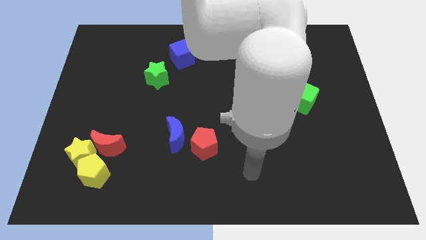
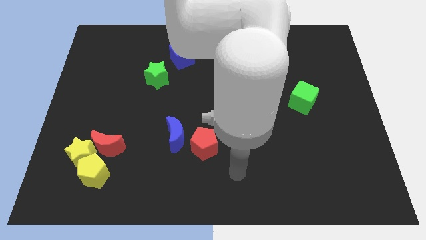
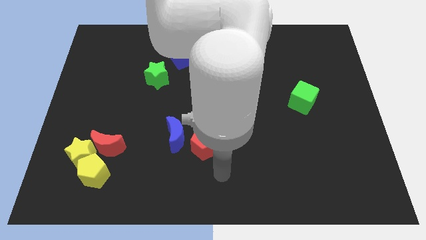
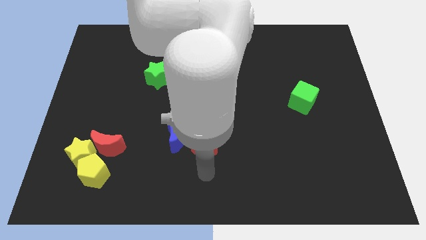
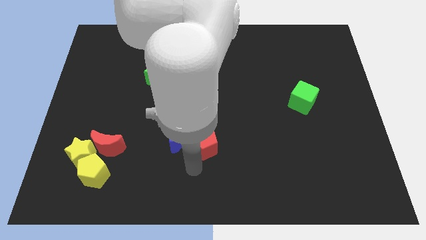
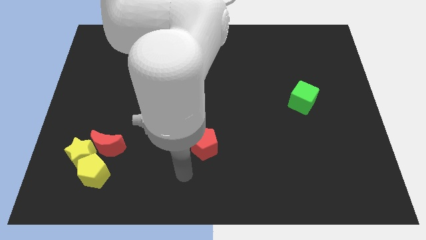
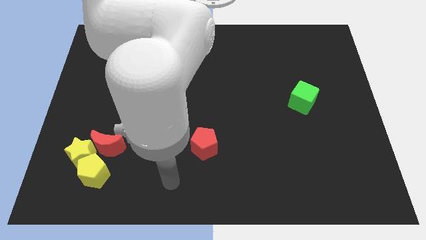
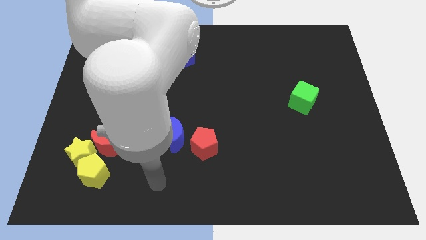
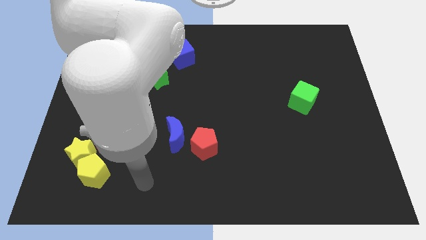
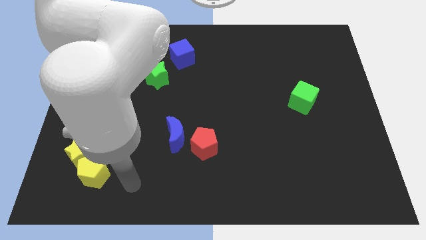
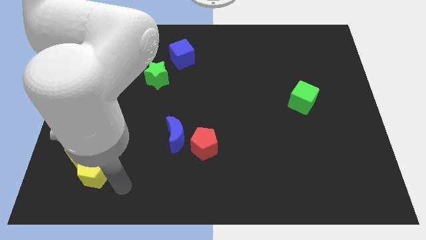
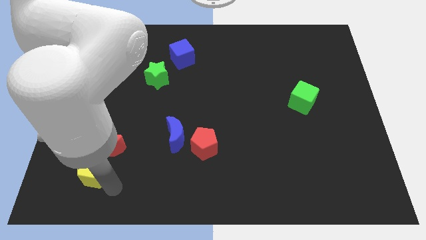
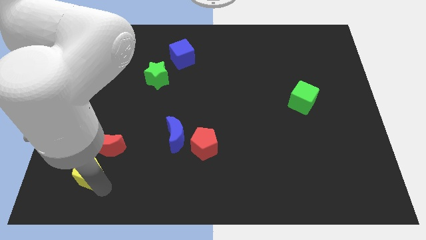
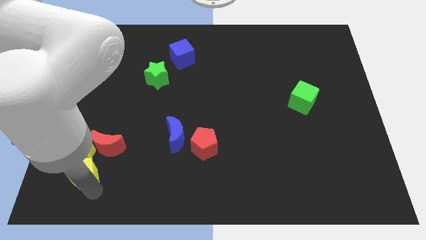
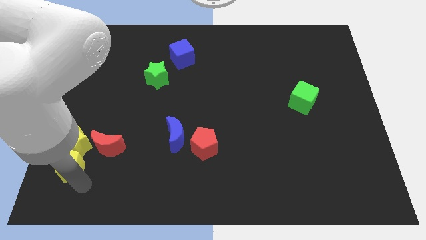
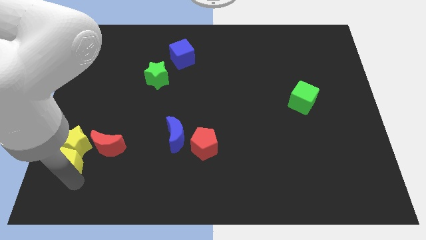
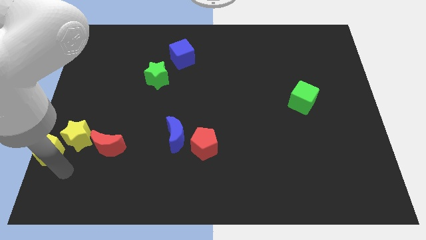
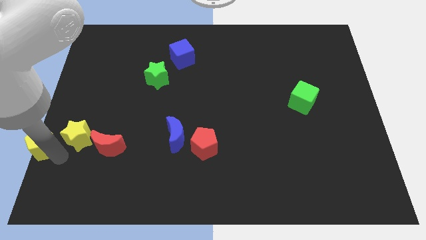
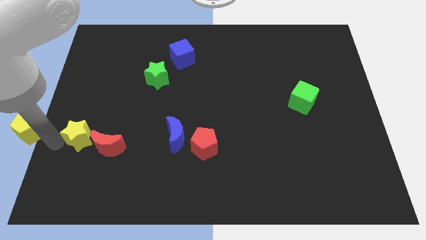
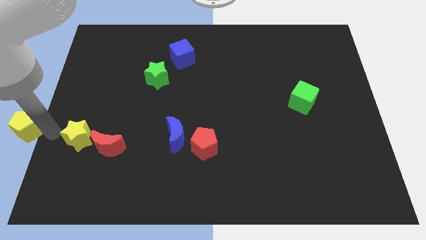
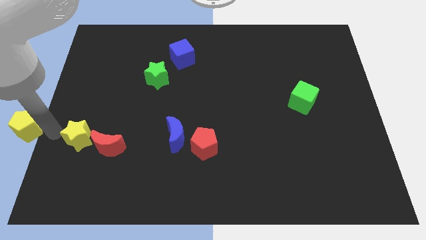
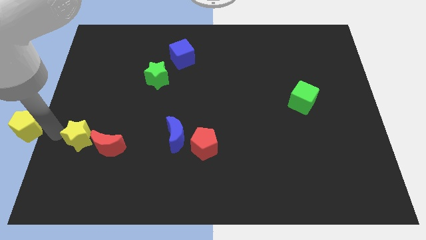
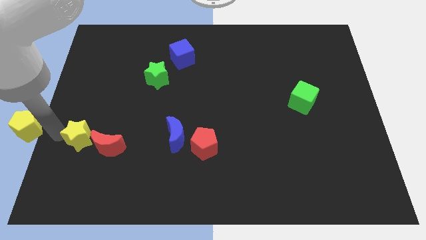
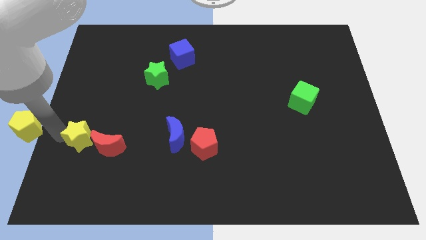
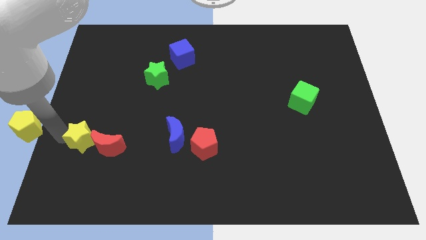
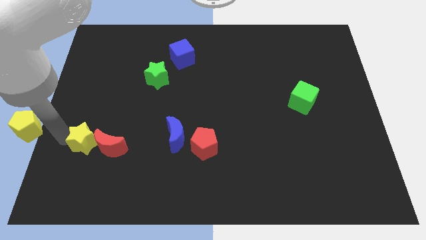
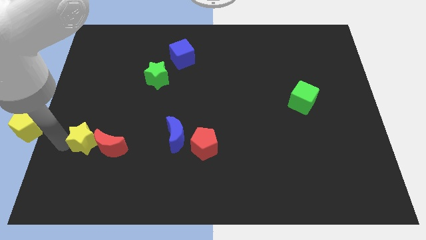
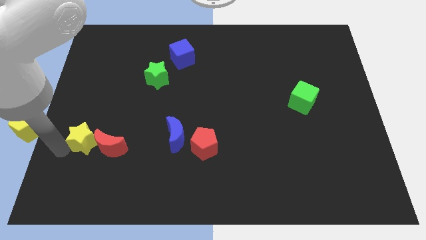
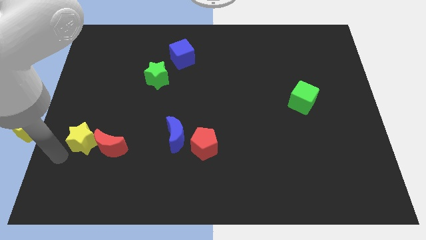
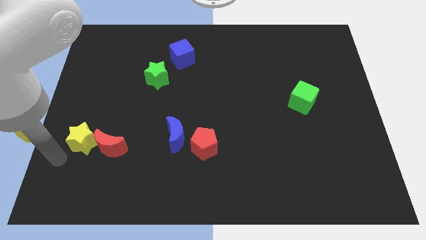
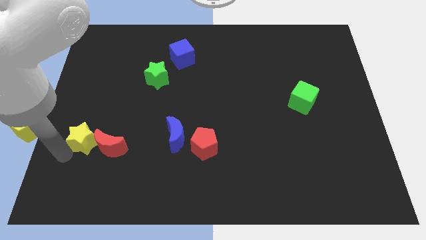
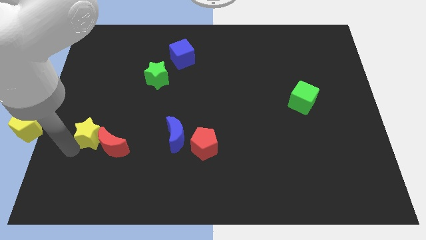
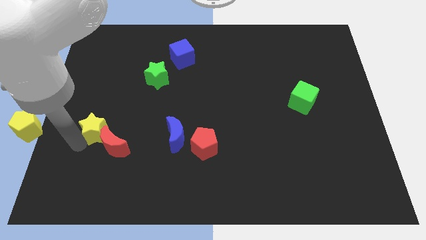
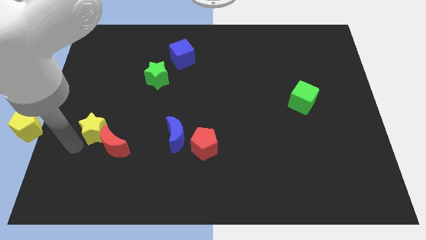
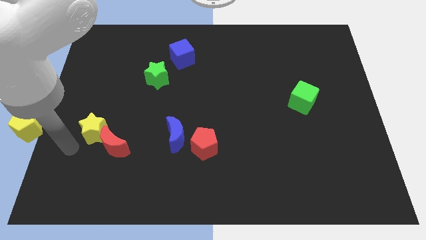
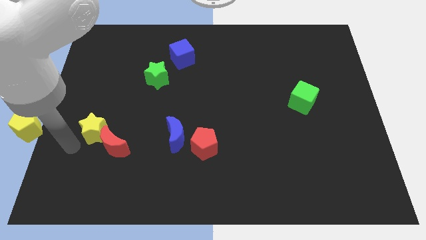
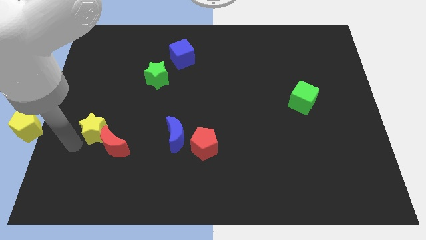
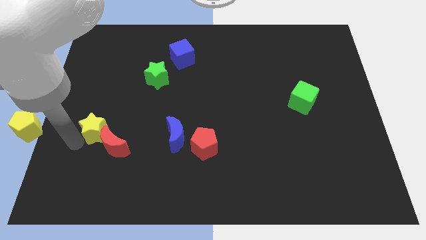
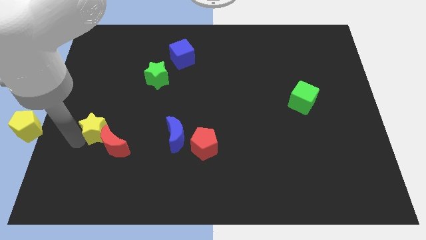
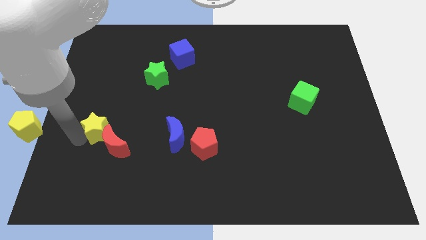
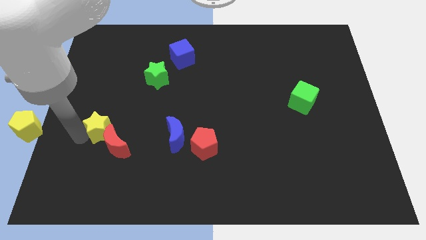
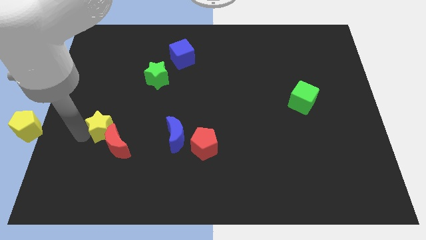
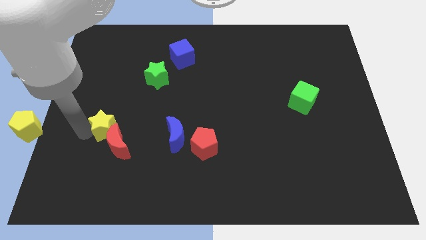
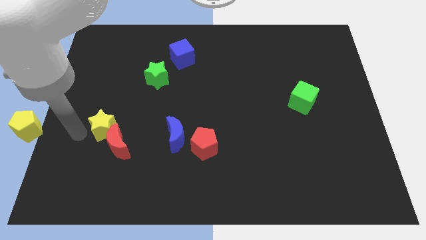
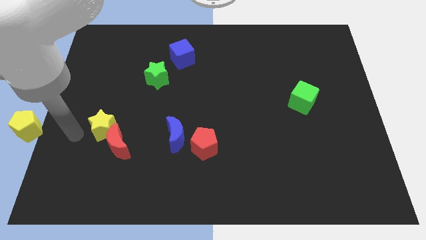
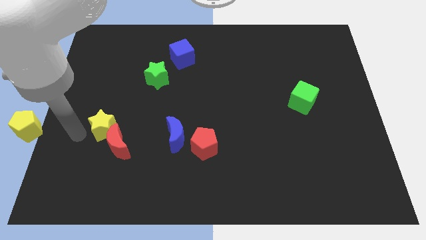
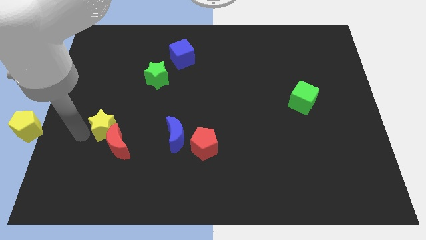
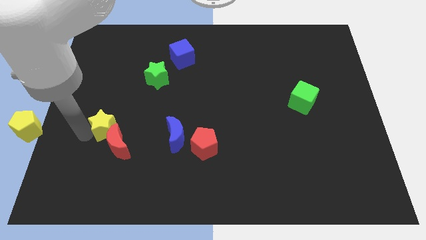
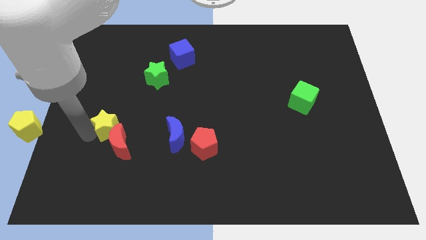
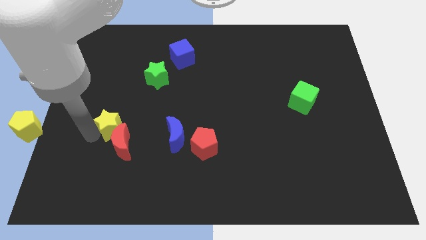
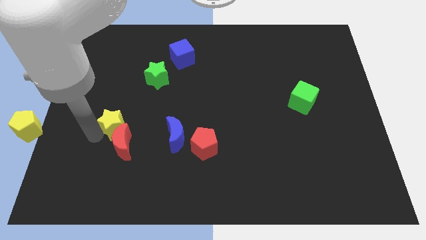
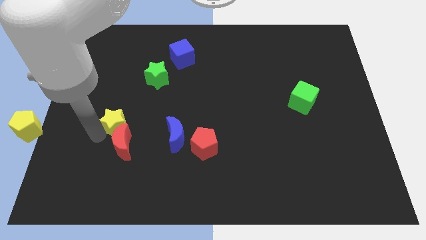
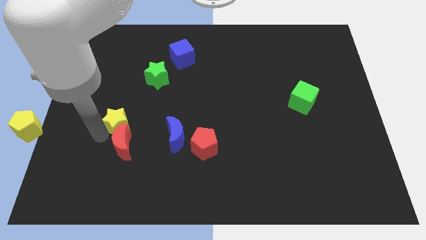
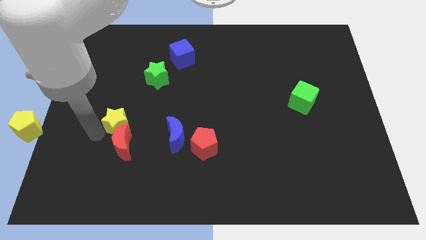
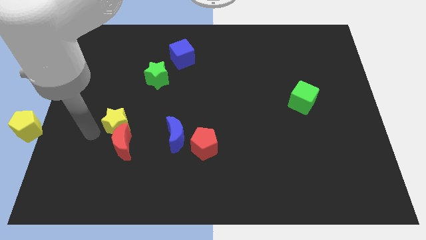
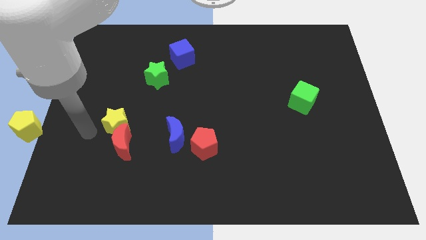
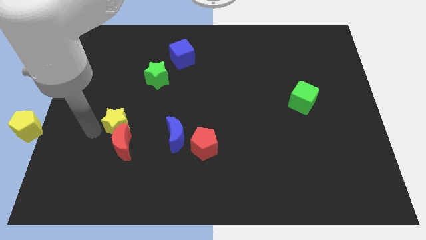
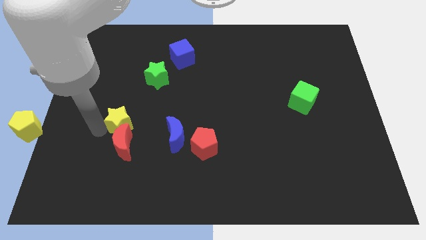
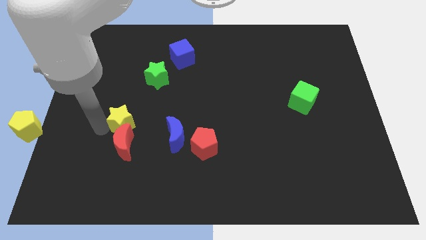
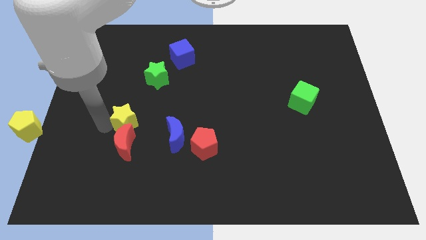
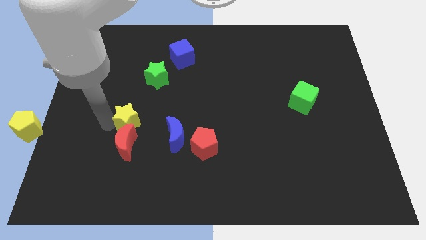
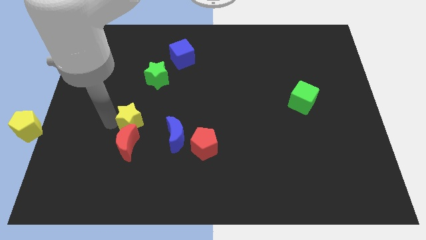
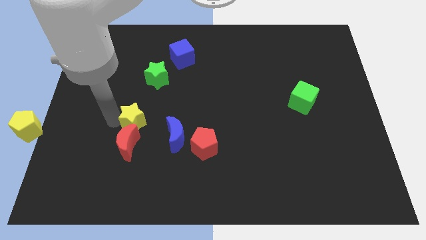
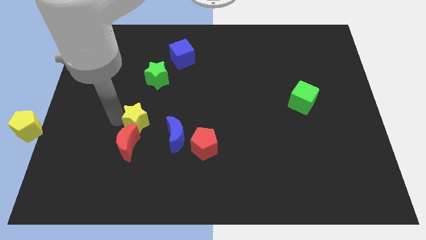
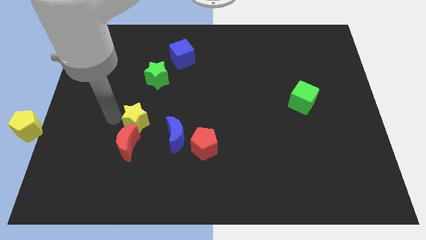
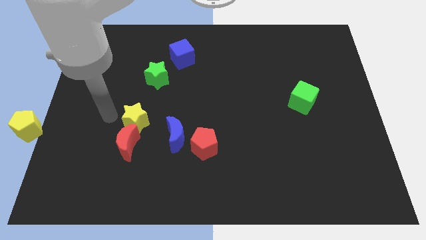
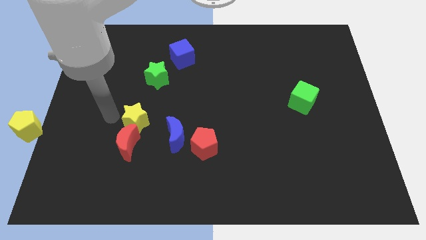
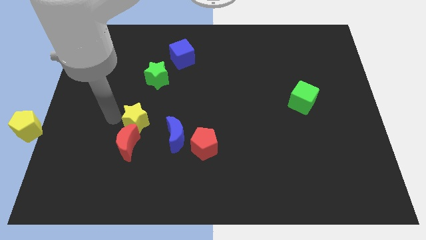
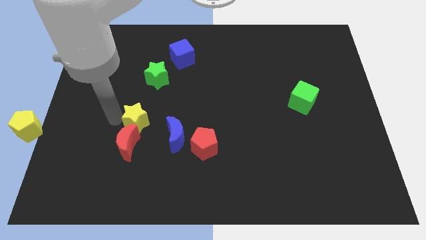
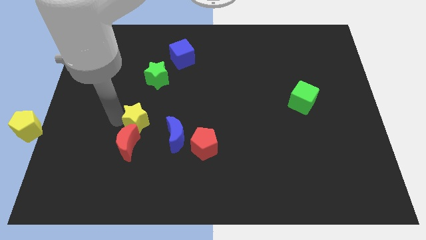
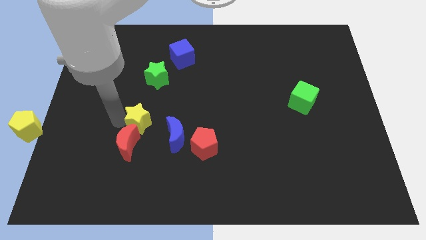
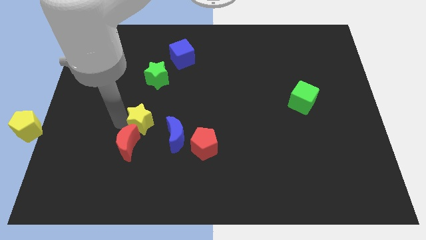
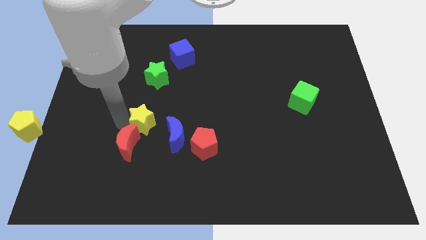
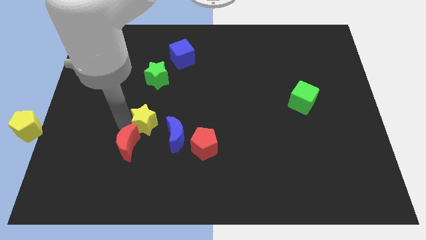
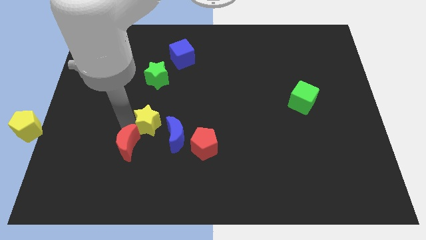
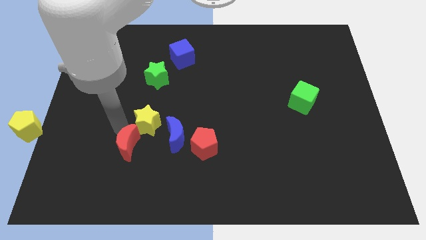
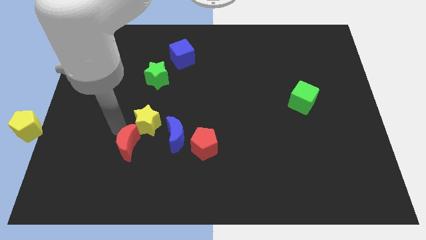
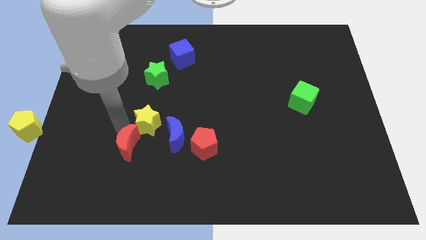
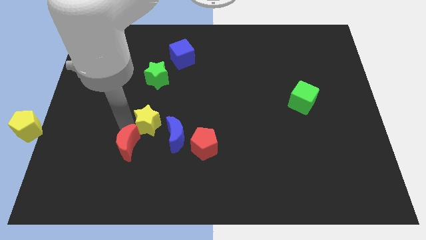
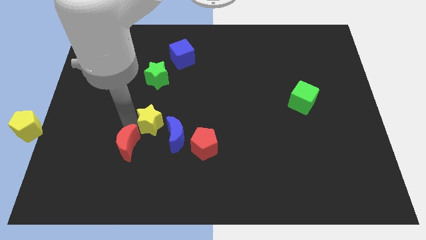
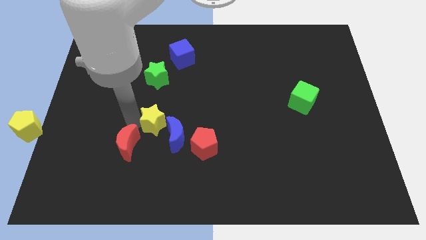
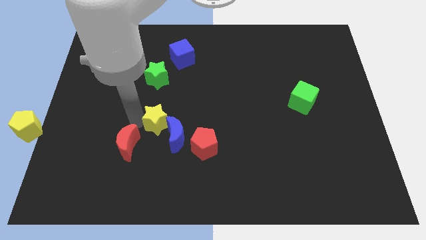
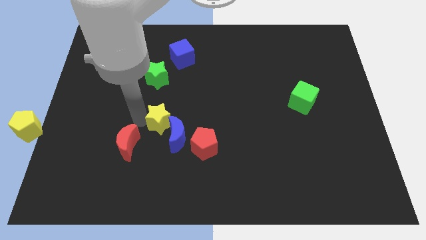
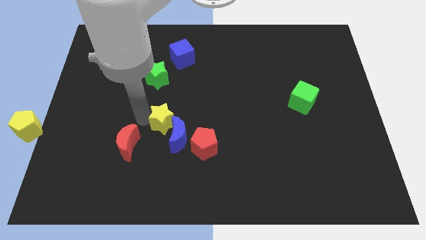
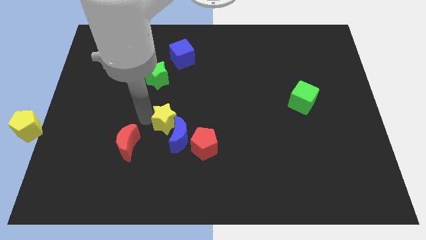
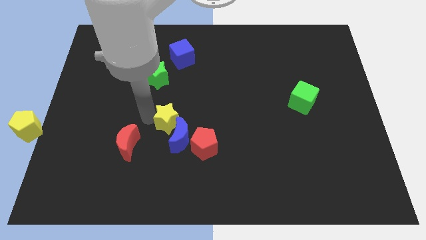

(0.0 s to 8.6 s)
put the yellow star to the middle
